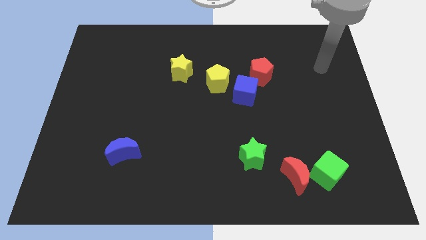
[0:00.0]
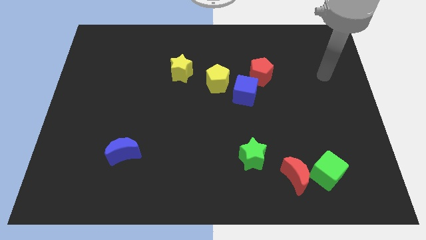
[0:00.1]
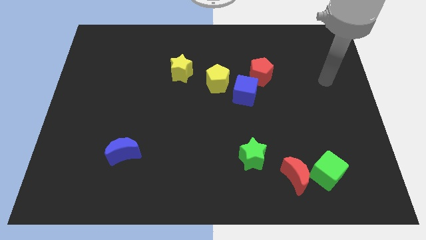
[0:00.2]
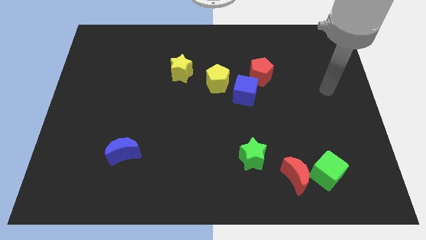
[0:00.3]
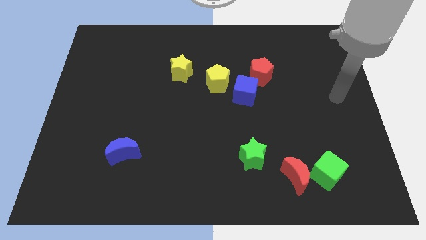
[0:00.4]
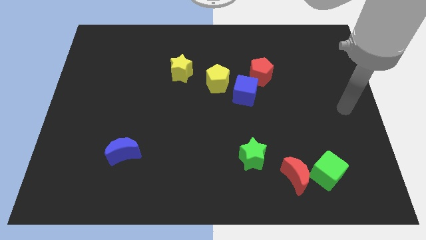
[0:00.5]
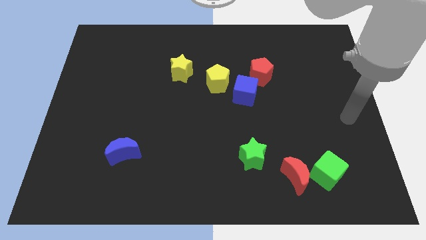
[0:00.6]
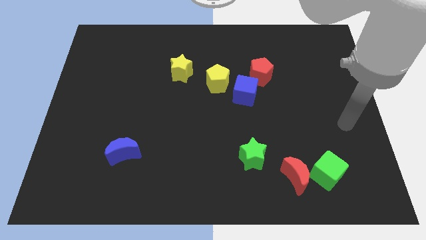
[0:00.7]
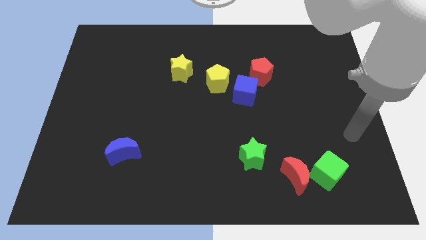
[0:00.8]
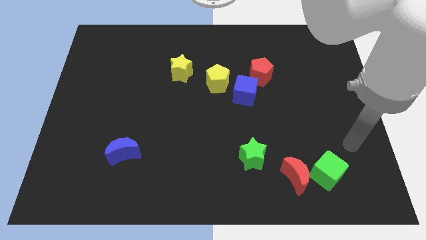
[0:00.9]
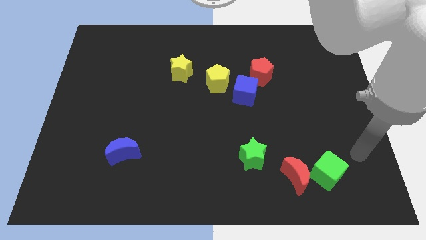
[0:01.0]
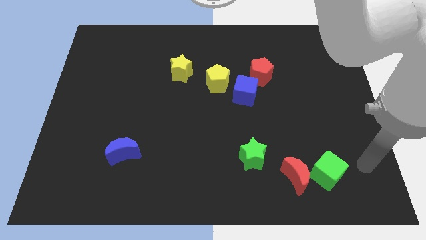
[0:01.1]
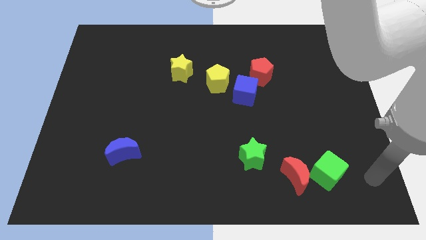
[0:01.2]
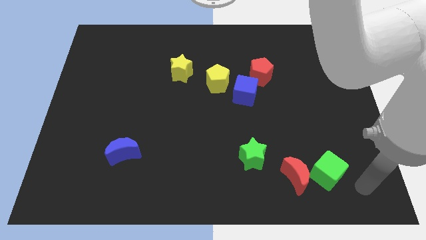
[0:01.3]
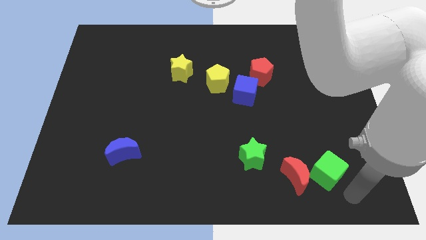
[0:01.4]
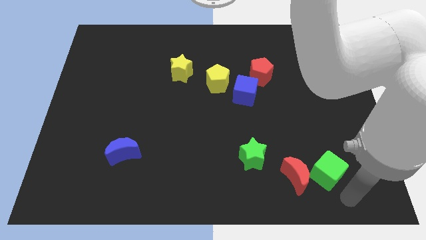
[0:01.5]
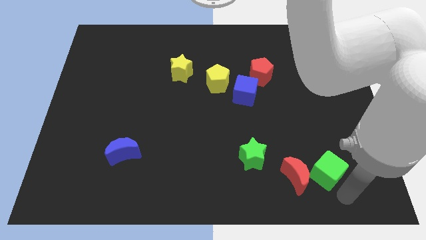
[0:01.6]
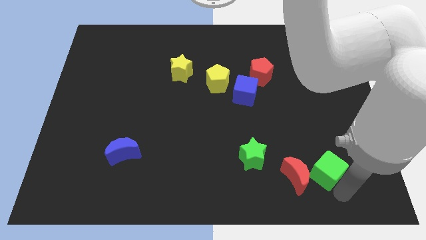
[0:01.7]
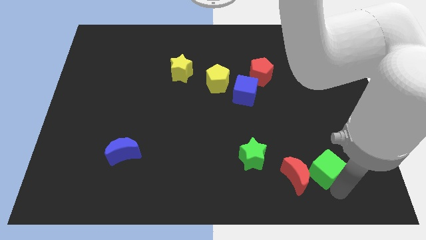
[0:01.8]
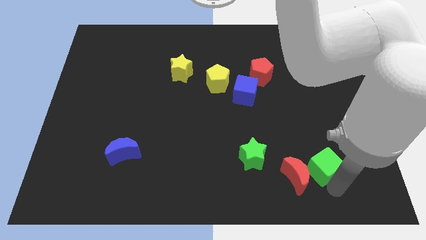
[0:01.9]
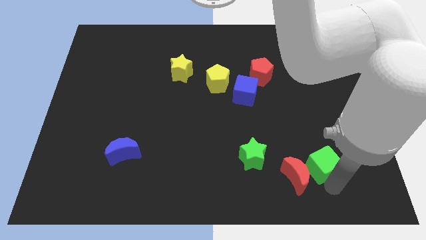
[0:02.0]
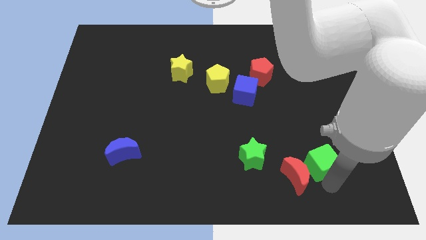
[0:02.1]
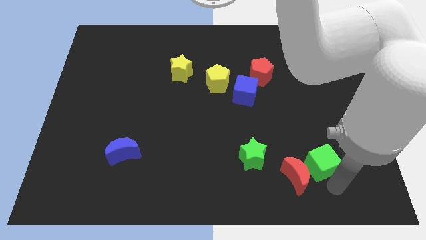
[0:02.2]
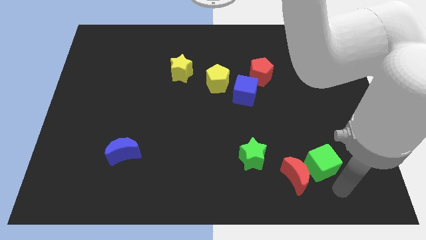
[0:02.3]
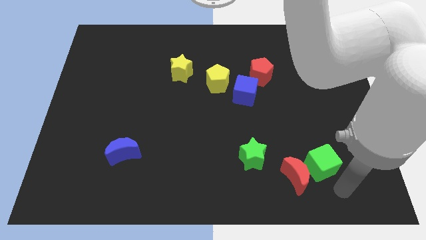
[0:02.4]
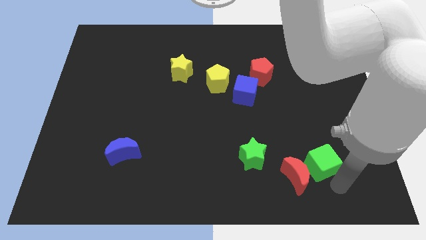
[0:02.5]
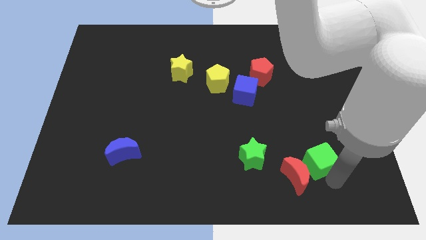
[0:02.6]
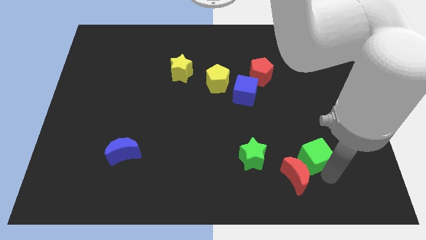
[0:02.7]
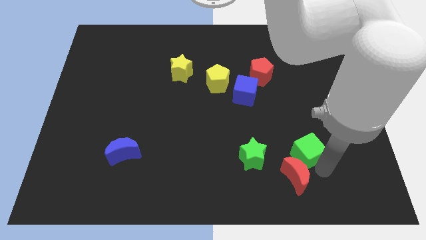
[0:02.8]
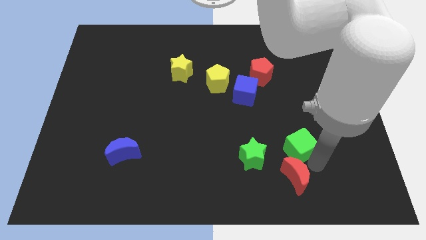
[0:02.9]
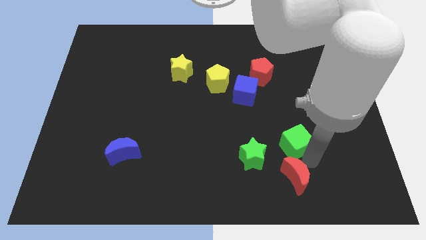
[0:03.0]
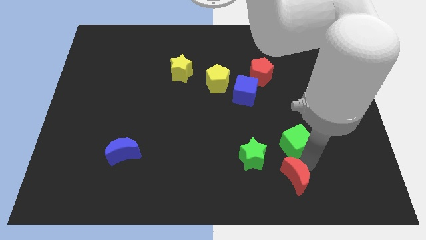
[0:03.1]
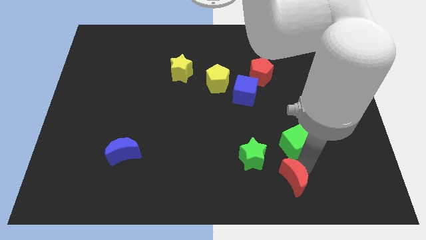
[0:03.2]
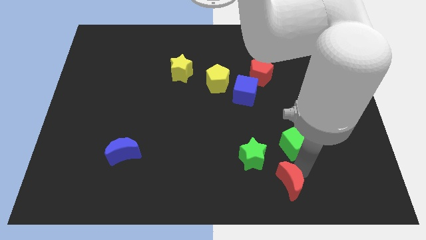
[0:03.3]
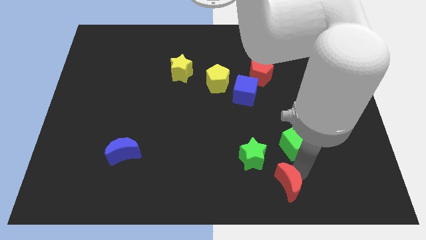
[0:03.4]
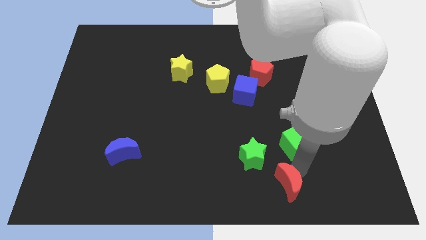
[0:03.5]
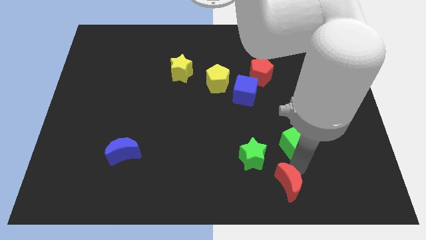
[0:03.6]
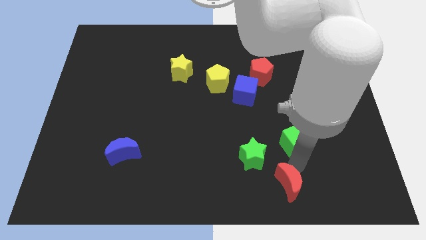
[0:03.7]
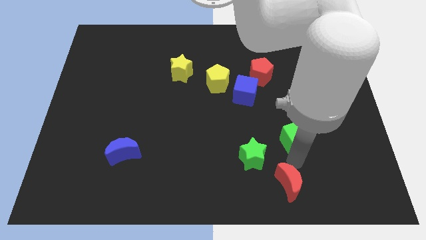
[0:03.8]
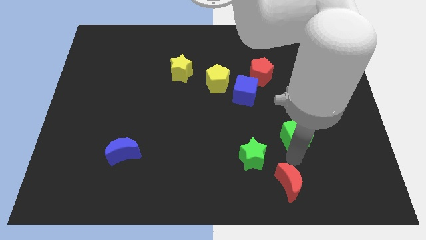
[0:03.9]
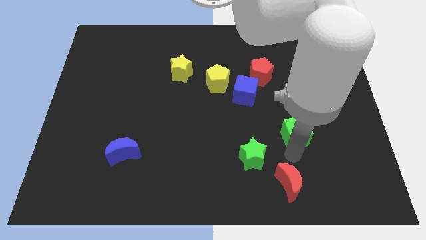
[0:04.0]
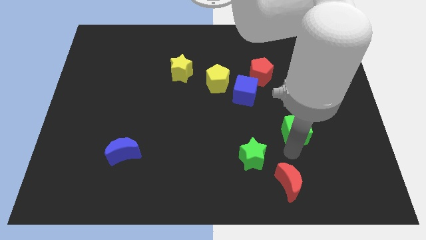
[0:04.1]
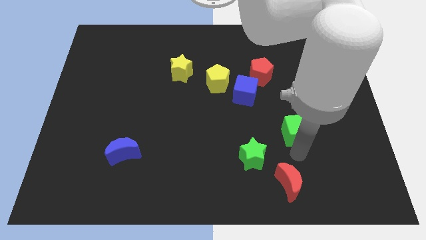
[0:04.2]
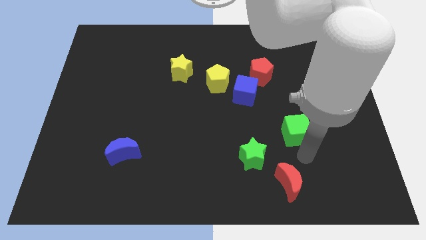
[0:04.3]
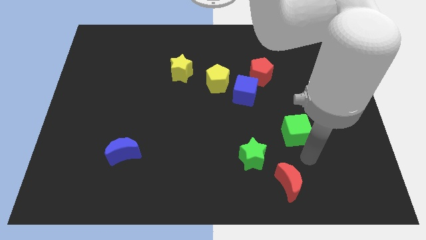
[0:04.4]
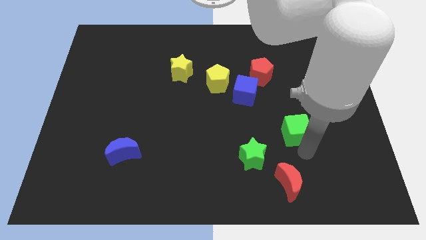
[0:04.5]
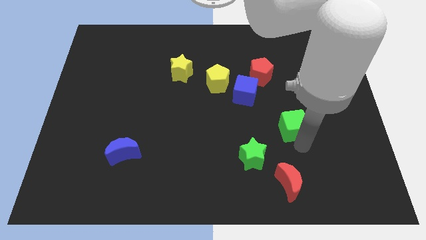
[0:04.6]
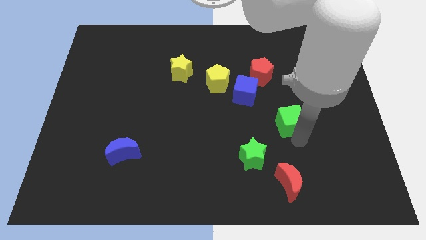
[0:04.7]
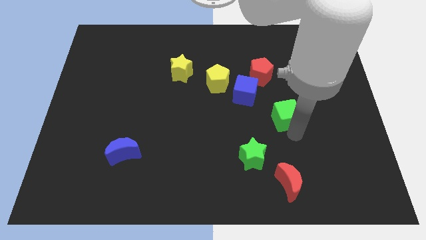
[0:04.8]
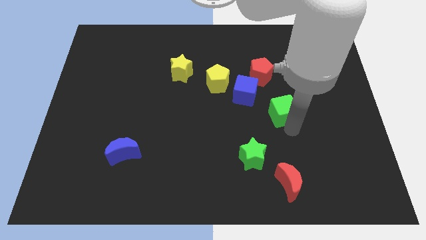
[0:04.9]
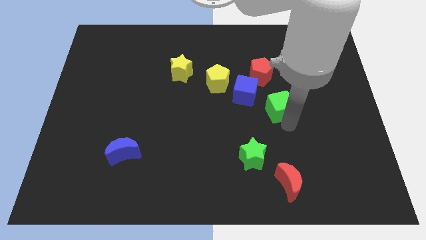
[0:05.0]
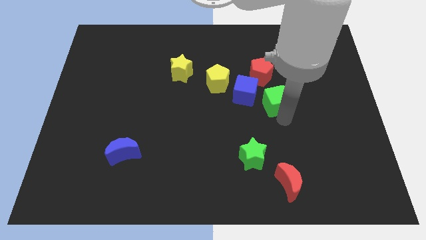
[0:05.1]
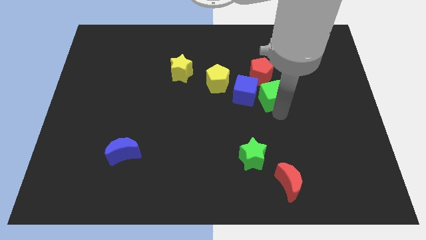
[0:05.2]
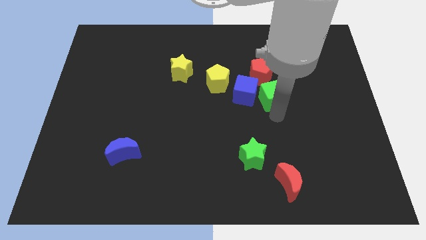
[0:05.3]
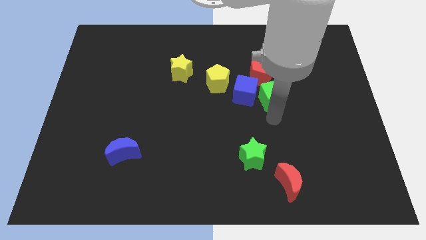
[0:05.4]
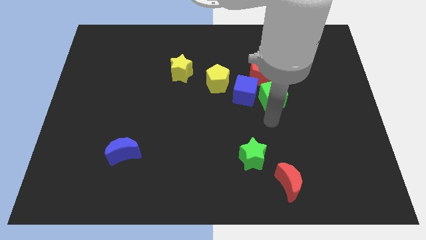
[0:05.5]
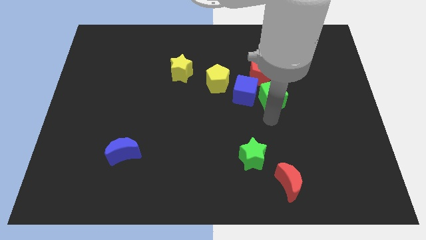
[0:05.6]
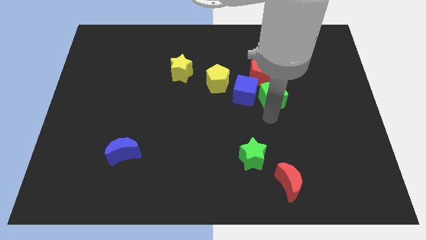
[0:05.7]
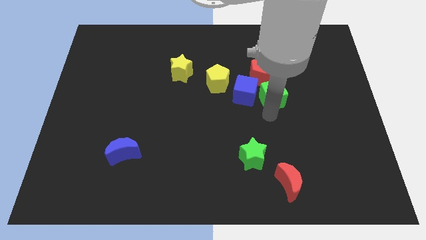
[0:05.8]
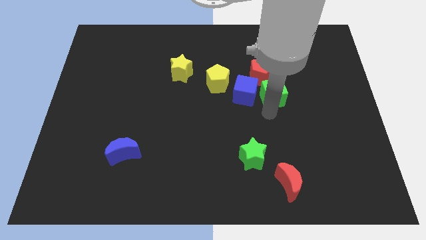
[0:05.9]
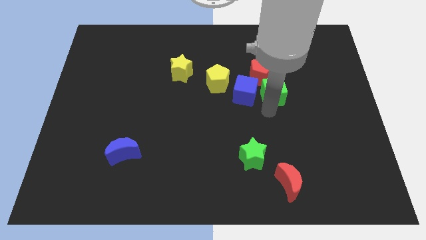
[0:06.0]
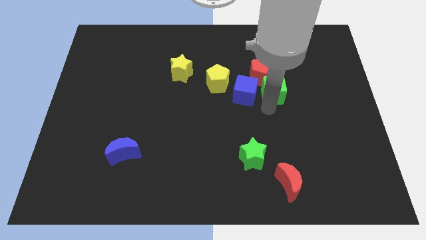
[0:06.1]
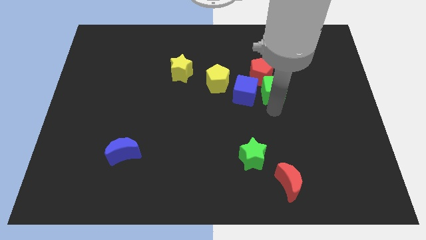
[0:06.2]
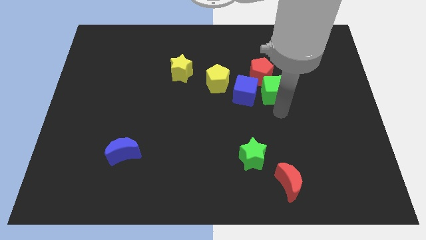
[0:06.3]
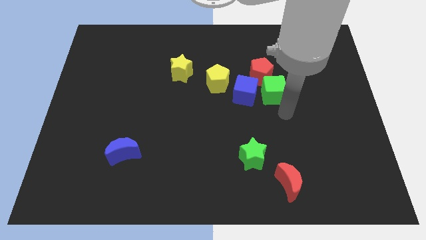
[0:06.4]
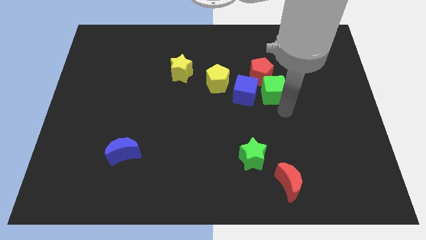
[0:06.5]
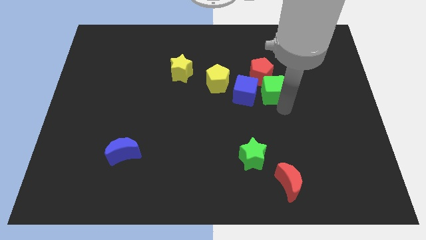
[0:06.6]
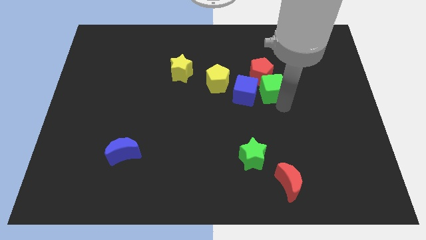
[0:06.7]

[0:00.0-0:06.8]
slide the green cube to the red pentagon
